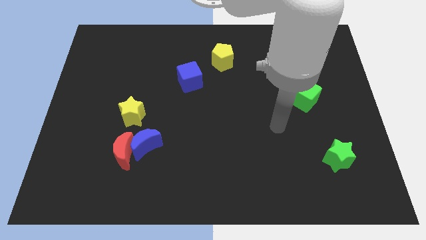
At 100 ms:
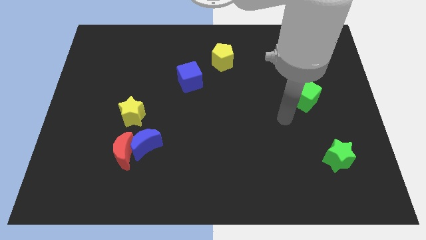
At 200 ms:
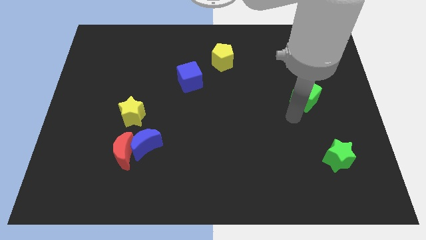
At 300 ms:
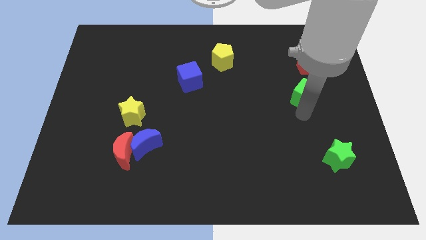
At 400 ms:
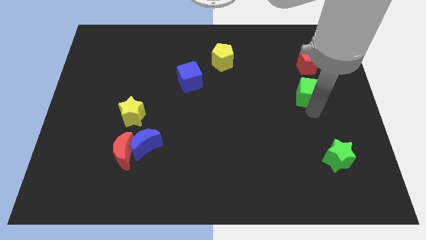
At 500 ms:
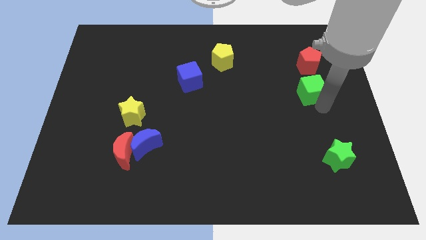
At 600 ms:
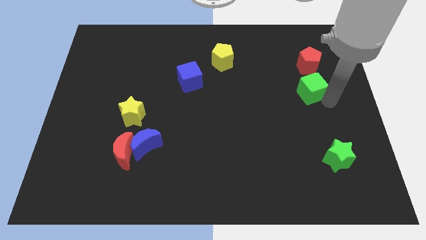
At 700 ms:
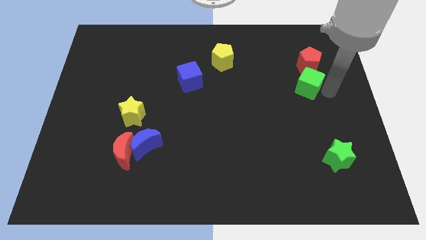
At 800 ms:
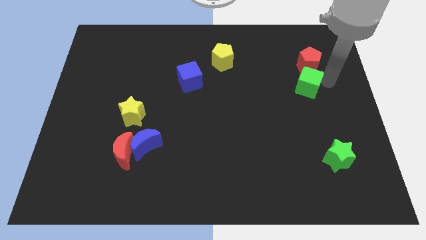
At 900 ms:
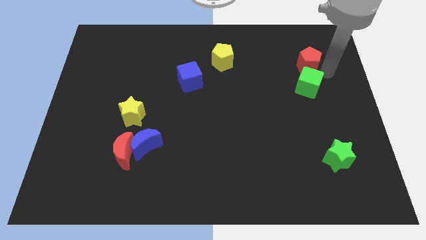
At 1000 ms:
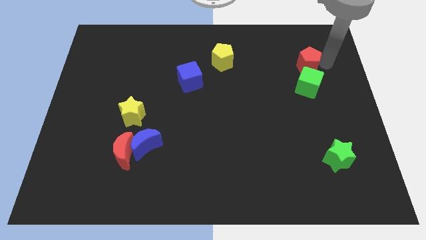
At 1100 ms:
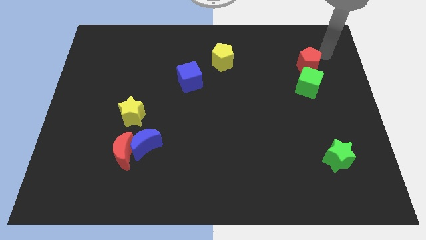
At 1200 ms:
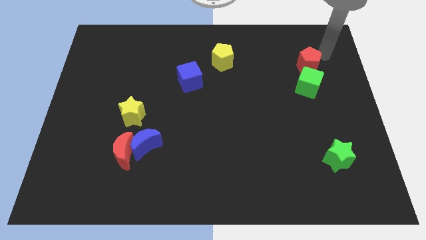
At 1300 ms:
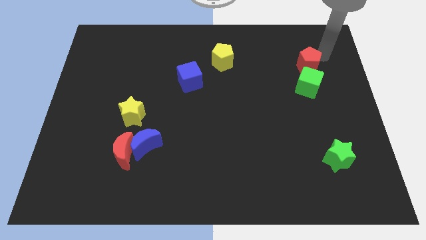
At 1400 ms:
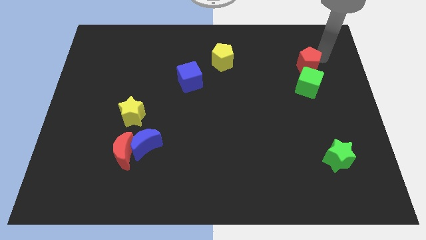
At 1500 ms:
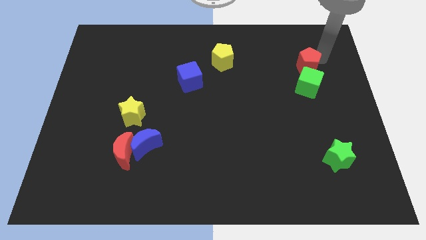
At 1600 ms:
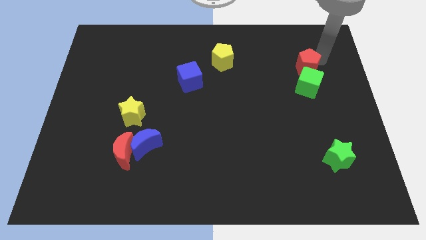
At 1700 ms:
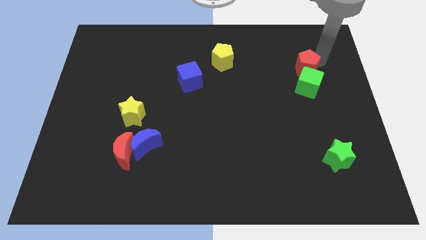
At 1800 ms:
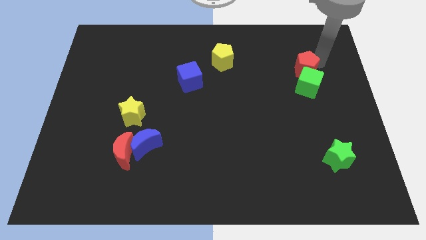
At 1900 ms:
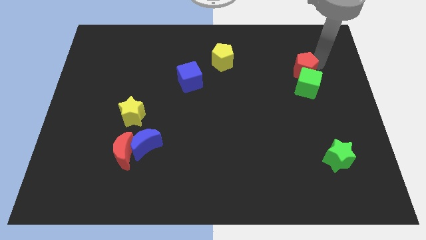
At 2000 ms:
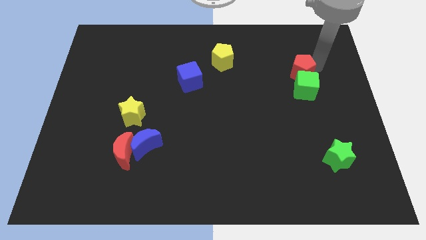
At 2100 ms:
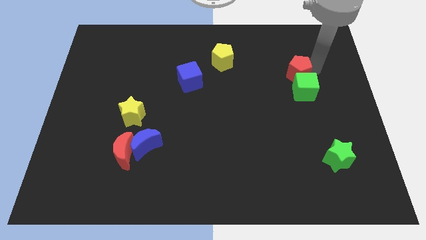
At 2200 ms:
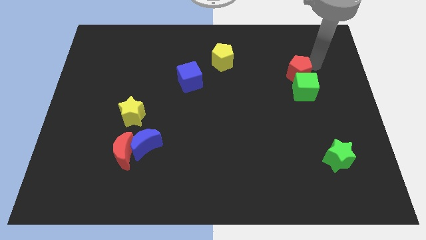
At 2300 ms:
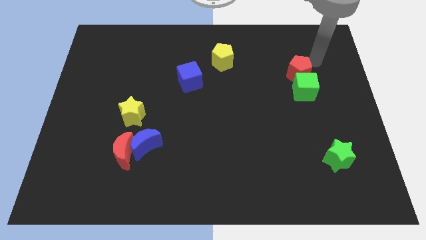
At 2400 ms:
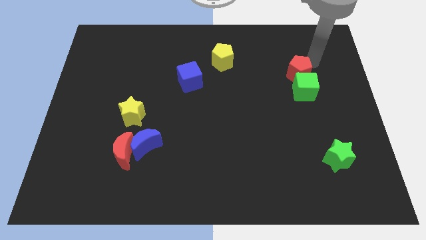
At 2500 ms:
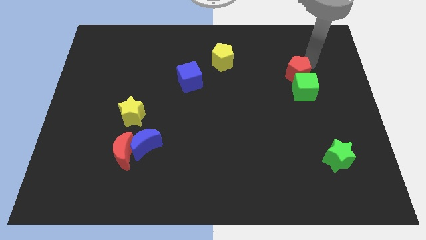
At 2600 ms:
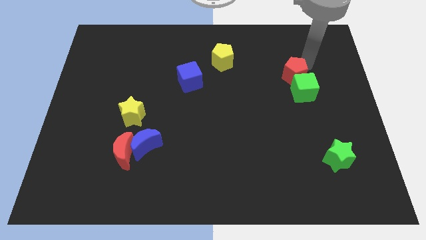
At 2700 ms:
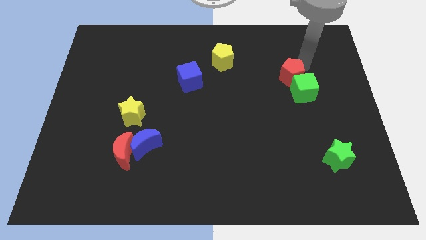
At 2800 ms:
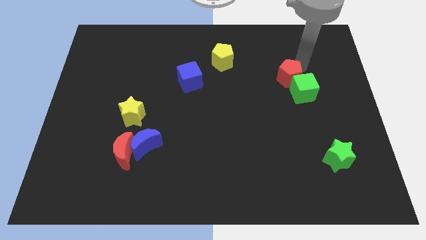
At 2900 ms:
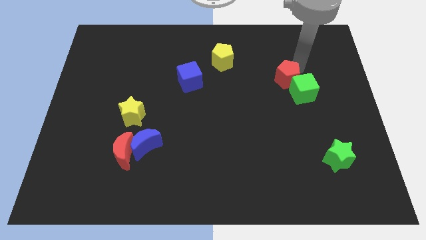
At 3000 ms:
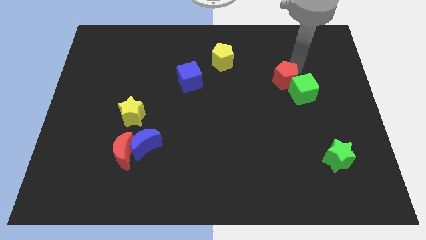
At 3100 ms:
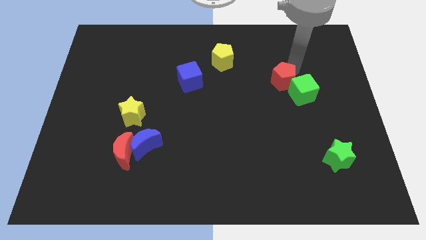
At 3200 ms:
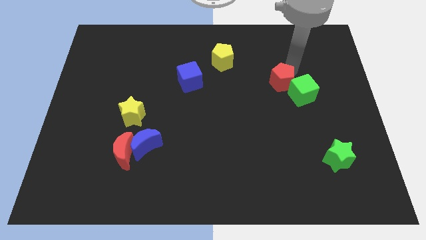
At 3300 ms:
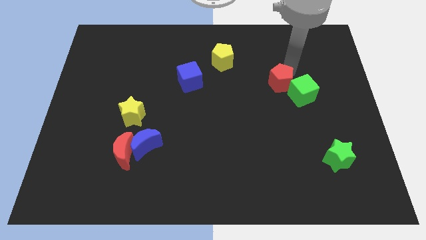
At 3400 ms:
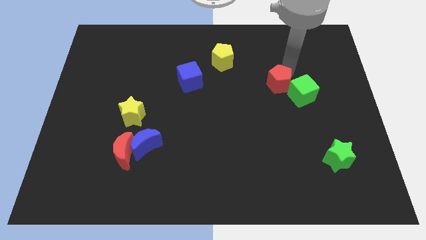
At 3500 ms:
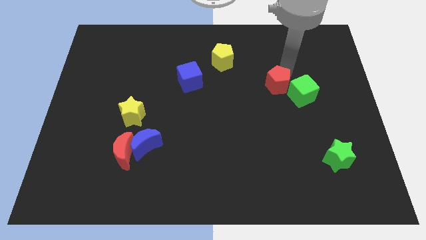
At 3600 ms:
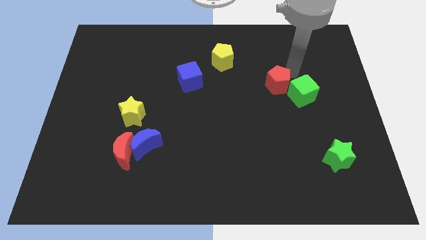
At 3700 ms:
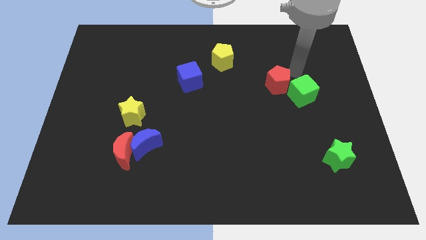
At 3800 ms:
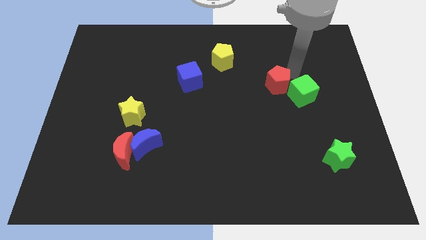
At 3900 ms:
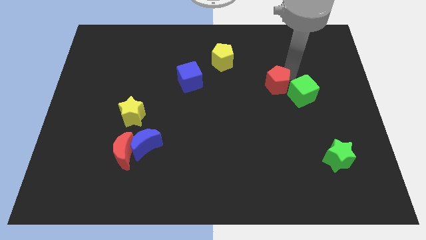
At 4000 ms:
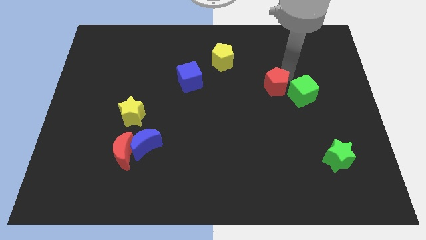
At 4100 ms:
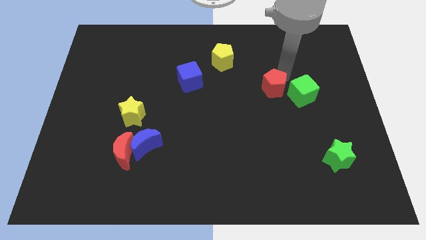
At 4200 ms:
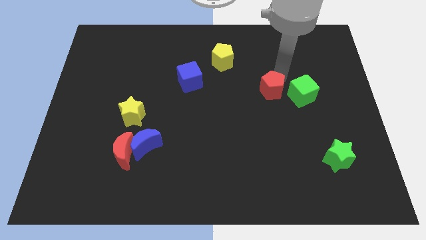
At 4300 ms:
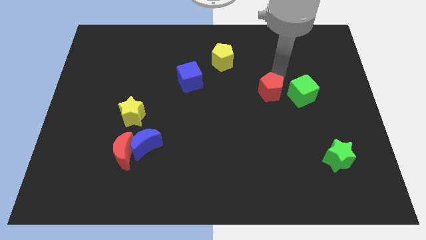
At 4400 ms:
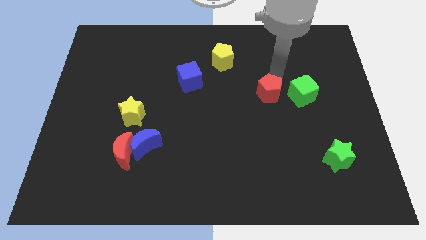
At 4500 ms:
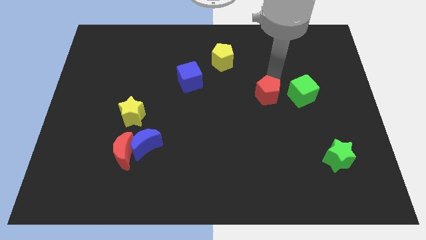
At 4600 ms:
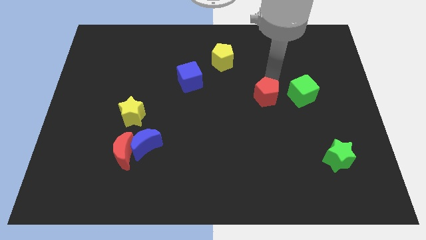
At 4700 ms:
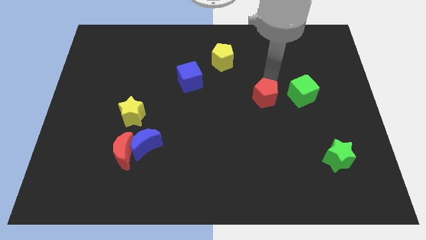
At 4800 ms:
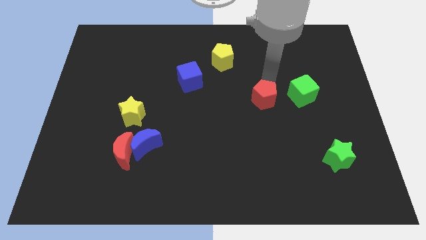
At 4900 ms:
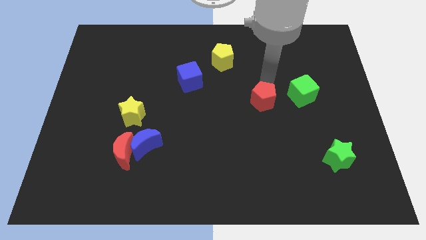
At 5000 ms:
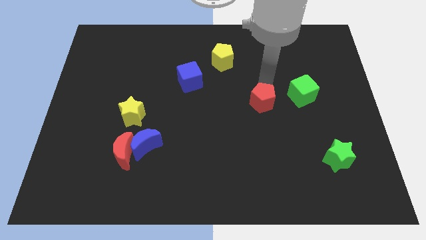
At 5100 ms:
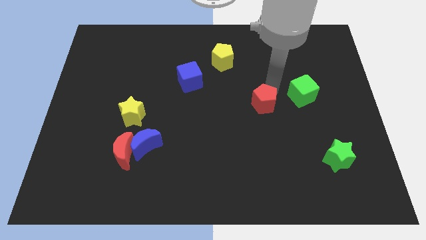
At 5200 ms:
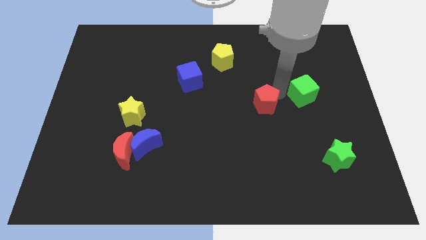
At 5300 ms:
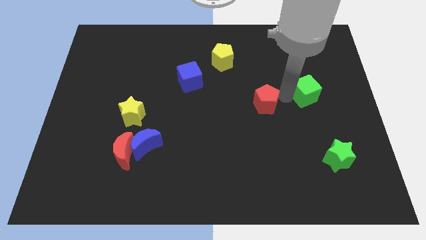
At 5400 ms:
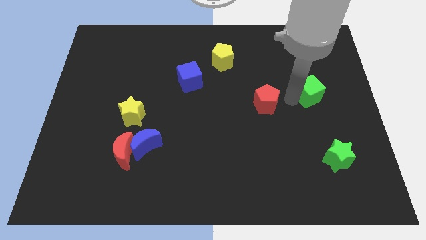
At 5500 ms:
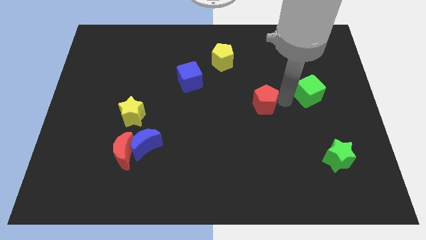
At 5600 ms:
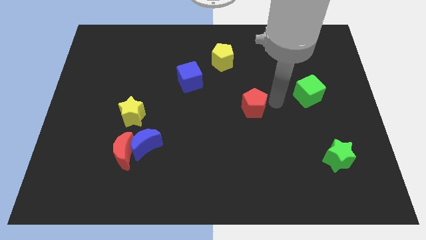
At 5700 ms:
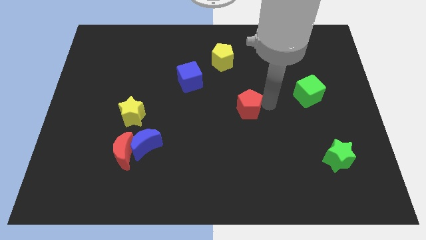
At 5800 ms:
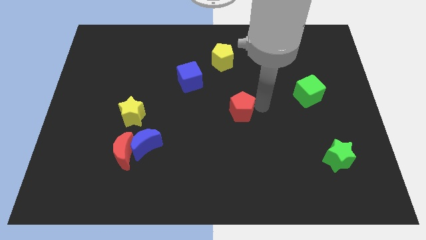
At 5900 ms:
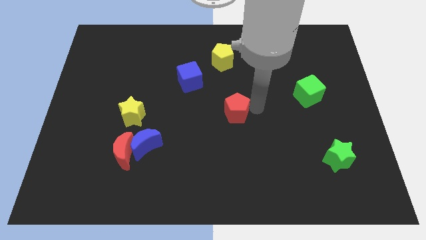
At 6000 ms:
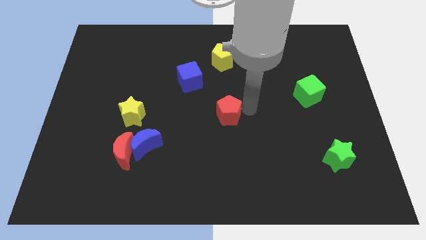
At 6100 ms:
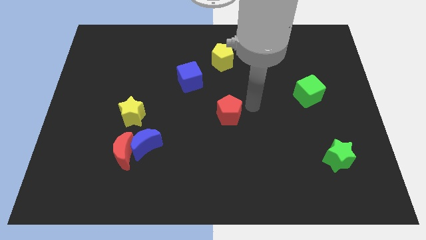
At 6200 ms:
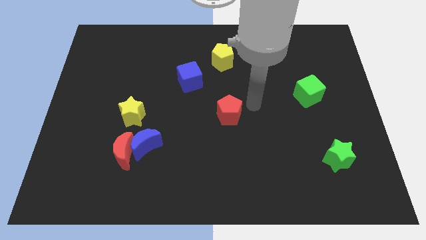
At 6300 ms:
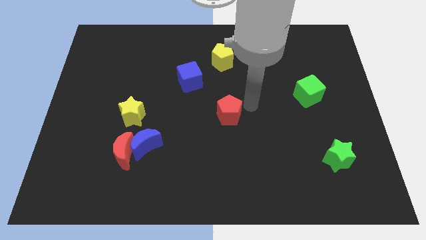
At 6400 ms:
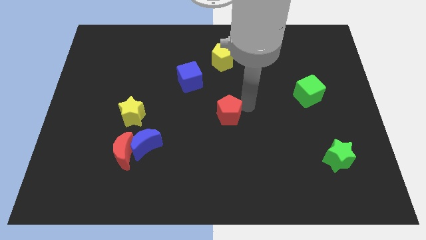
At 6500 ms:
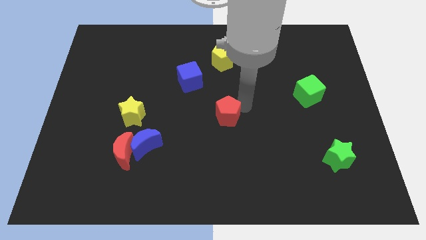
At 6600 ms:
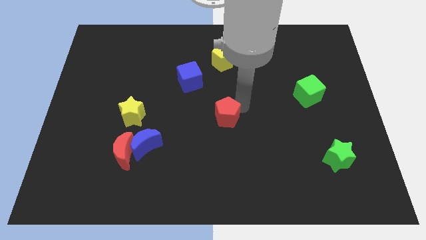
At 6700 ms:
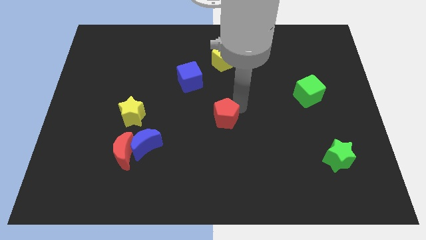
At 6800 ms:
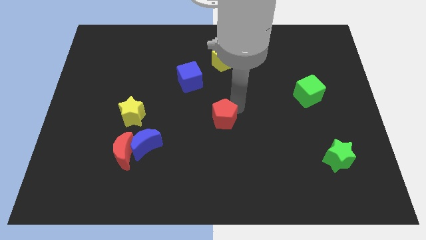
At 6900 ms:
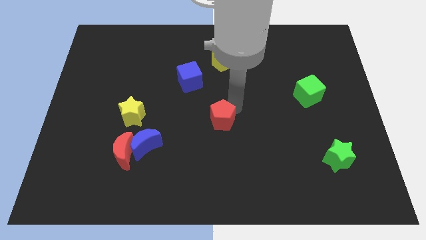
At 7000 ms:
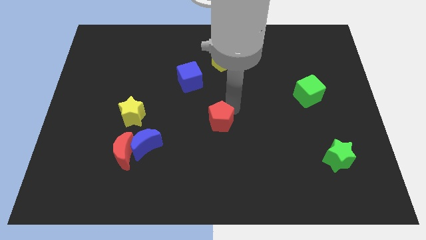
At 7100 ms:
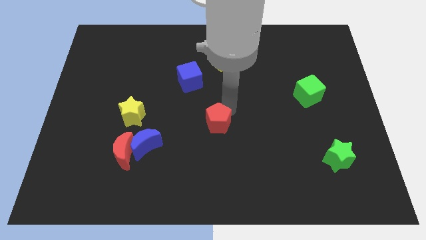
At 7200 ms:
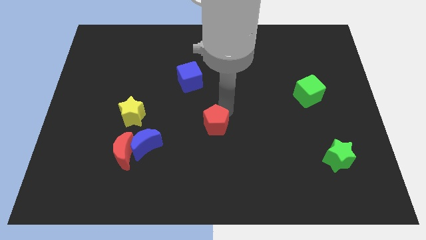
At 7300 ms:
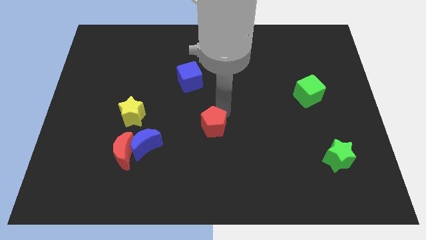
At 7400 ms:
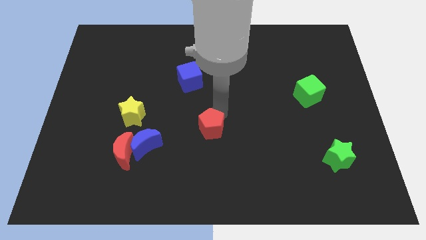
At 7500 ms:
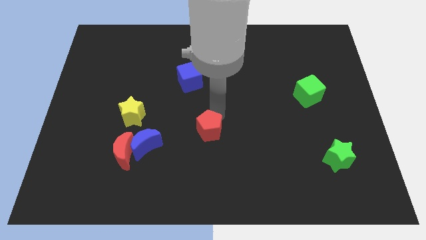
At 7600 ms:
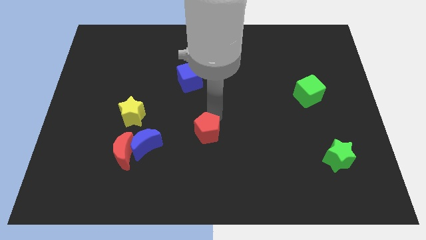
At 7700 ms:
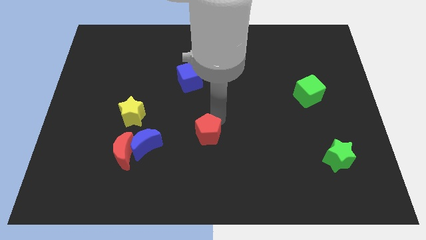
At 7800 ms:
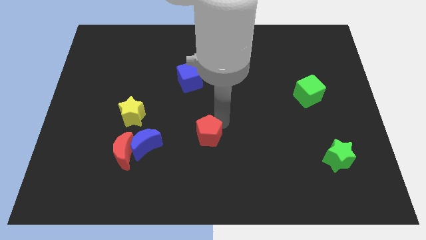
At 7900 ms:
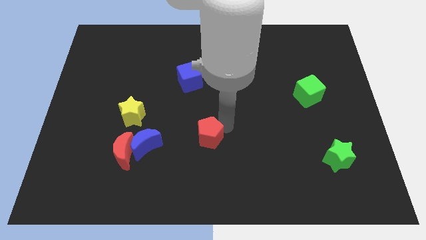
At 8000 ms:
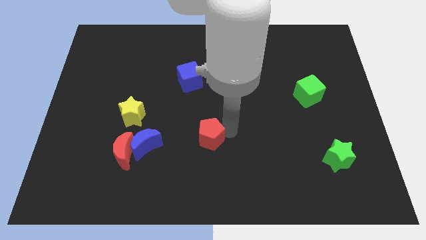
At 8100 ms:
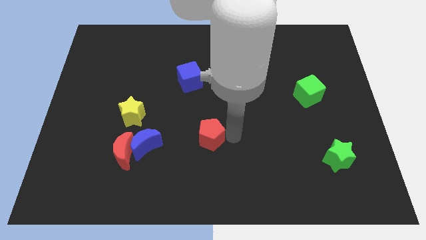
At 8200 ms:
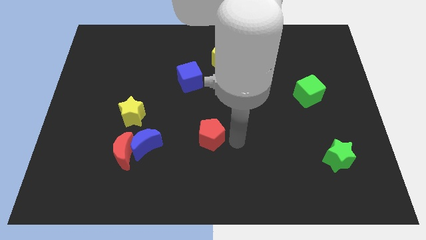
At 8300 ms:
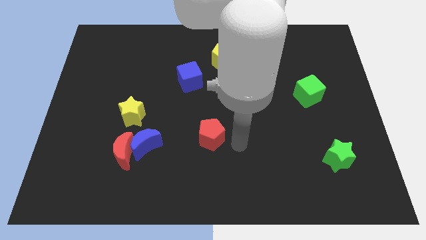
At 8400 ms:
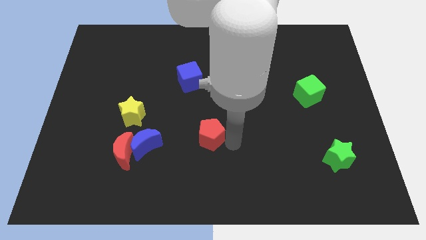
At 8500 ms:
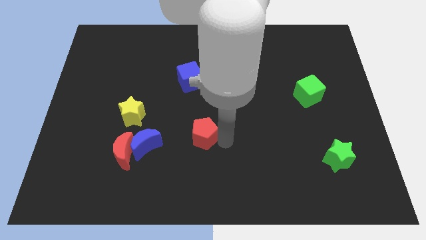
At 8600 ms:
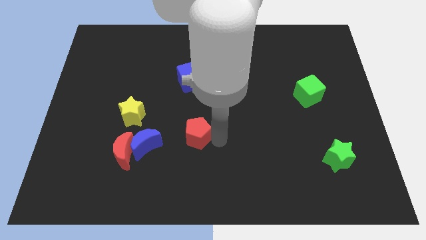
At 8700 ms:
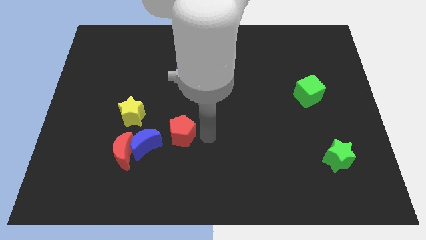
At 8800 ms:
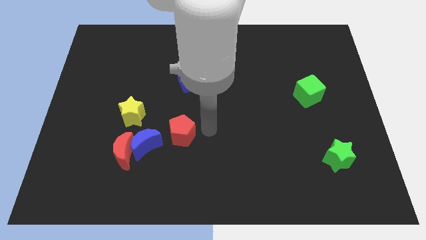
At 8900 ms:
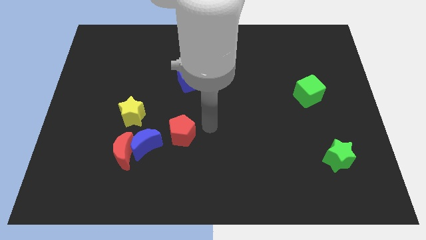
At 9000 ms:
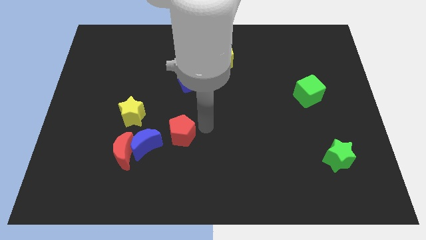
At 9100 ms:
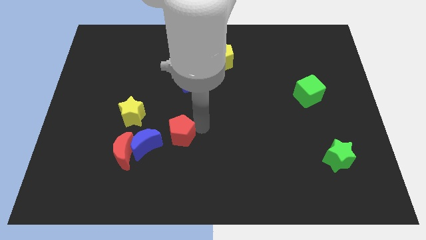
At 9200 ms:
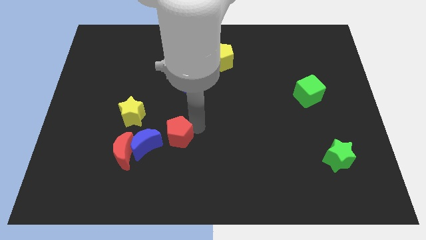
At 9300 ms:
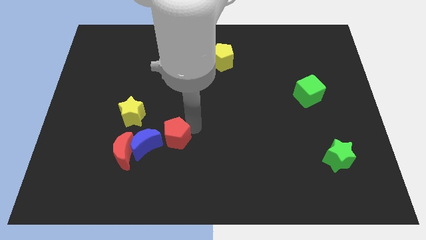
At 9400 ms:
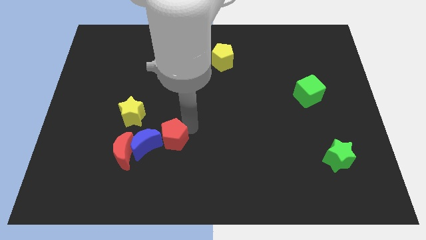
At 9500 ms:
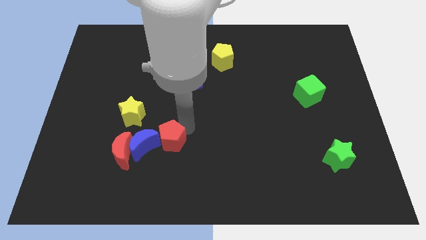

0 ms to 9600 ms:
move the red pentagon to the blue moon
